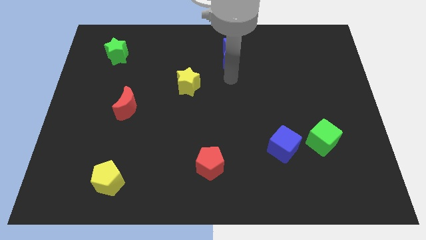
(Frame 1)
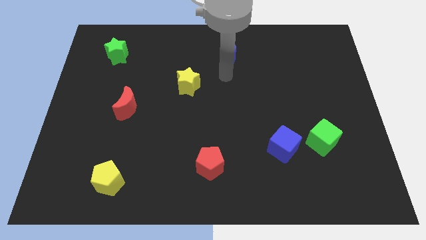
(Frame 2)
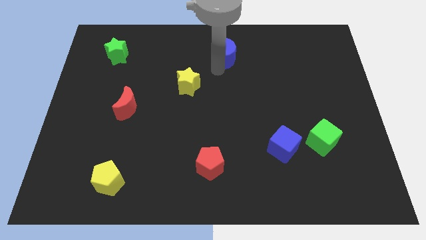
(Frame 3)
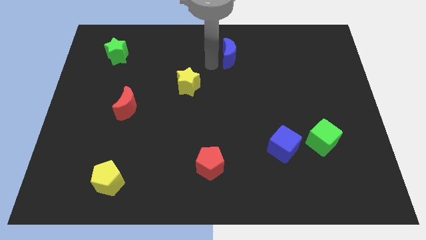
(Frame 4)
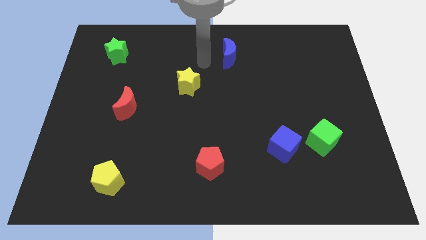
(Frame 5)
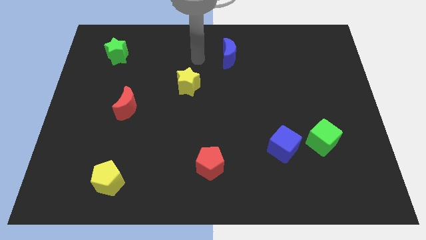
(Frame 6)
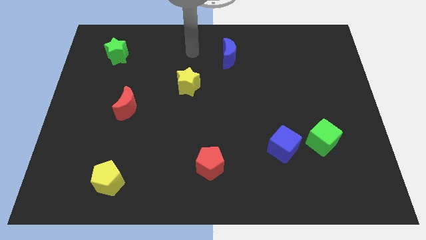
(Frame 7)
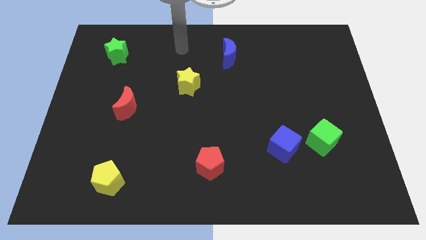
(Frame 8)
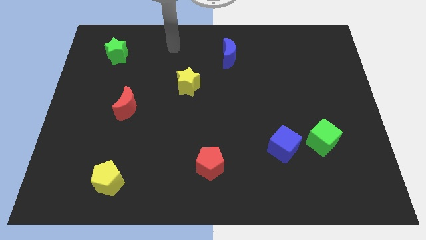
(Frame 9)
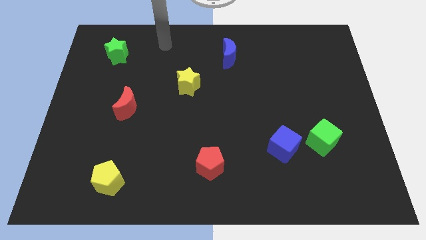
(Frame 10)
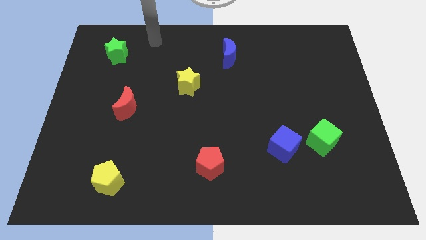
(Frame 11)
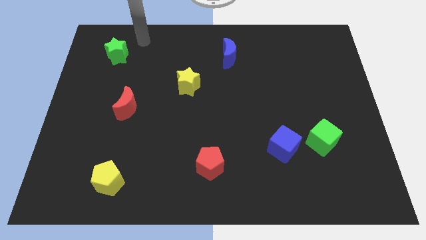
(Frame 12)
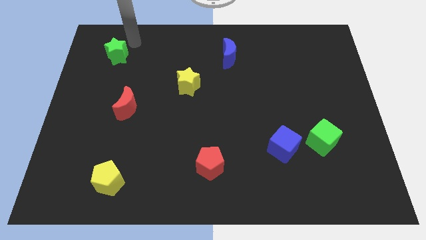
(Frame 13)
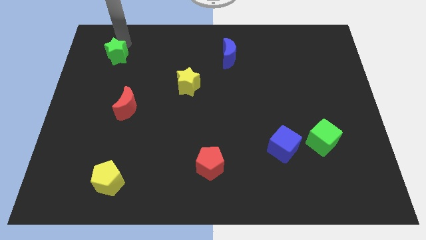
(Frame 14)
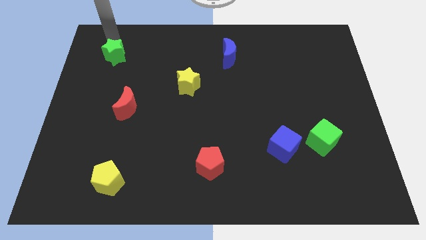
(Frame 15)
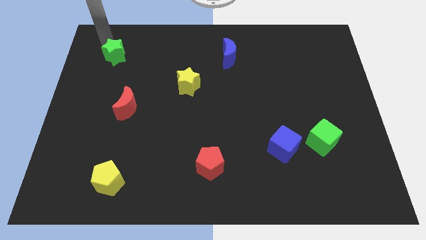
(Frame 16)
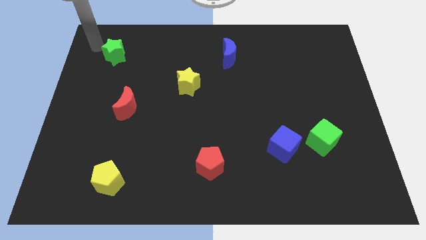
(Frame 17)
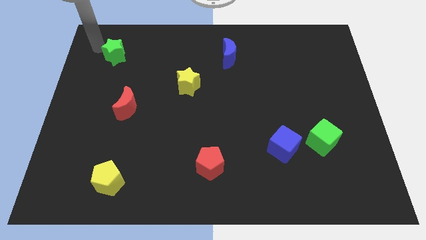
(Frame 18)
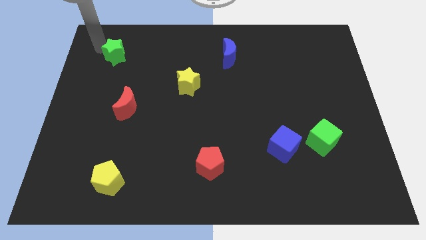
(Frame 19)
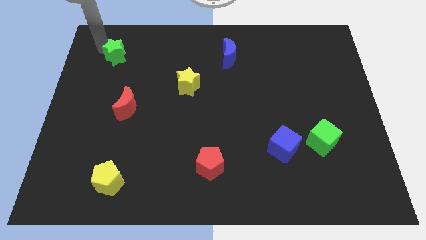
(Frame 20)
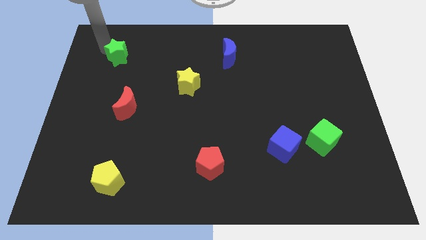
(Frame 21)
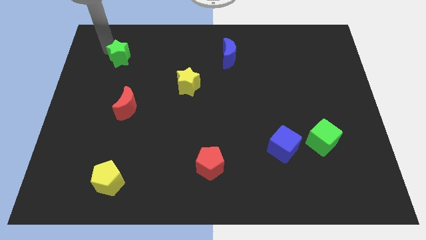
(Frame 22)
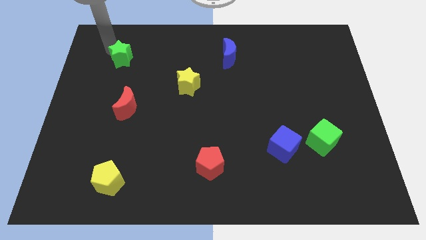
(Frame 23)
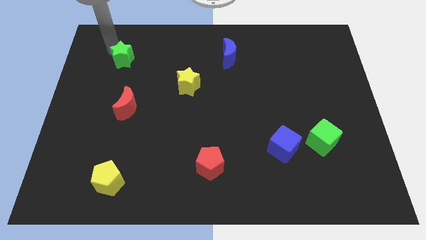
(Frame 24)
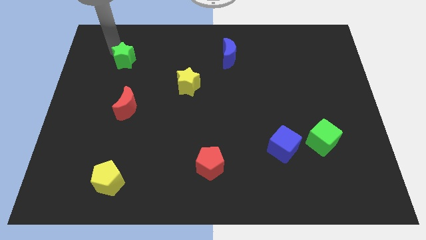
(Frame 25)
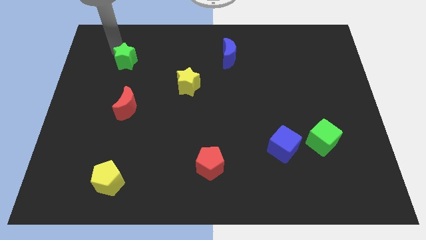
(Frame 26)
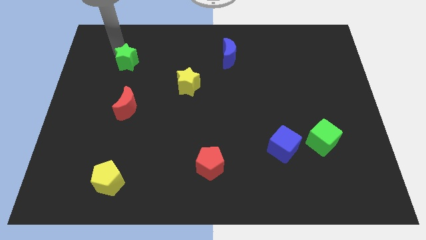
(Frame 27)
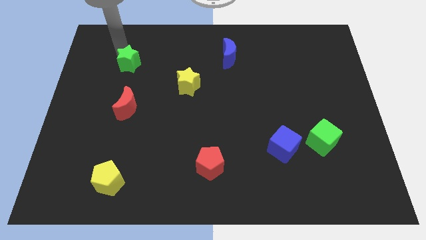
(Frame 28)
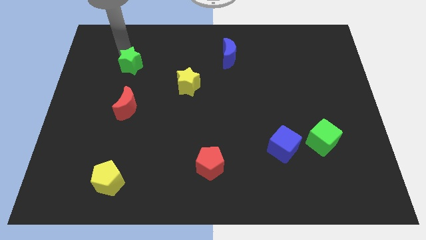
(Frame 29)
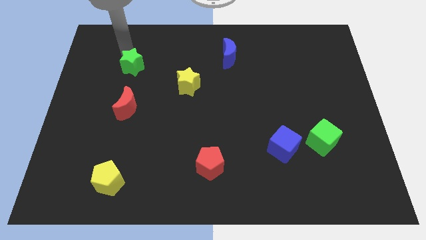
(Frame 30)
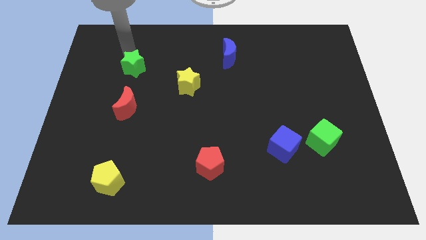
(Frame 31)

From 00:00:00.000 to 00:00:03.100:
push the green star down and to the right diagonally somewhat

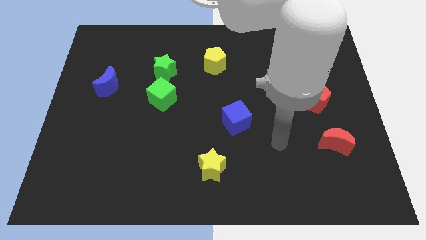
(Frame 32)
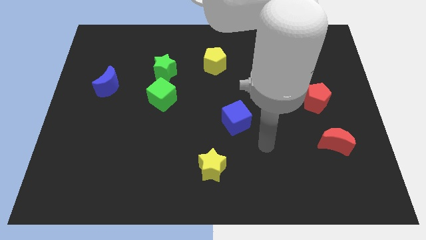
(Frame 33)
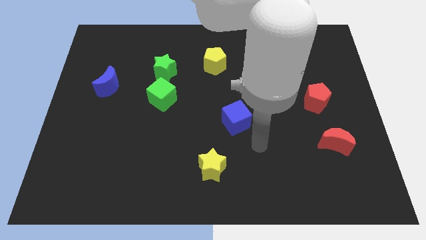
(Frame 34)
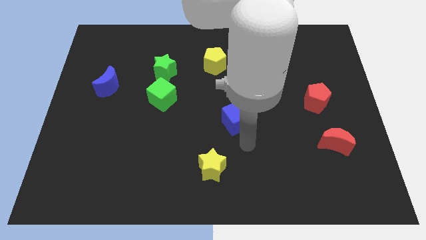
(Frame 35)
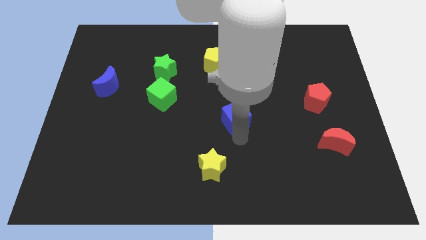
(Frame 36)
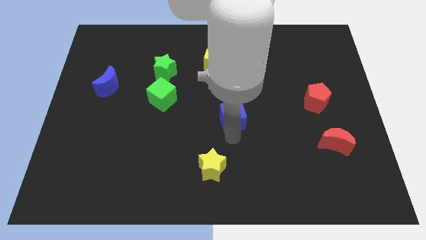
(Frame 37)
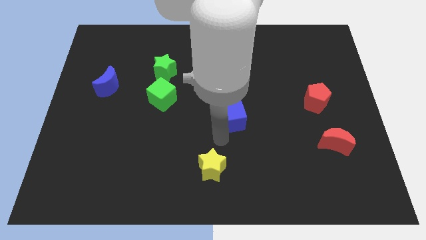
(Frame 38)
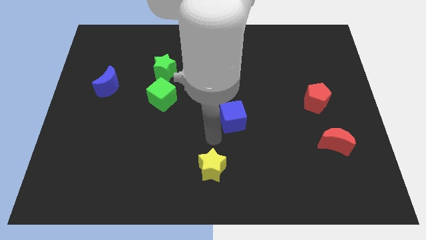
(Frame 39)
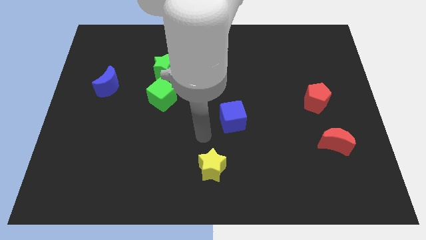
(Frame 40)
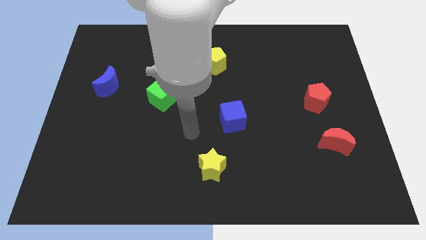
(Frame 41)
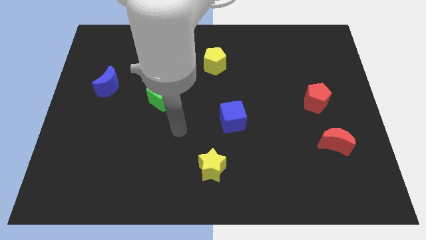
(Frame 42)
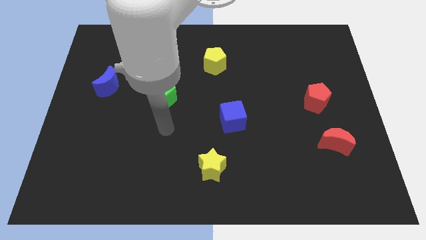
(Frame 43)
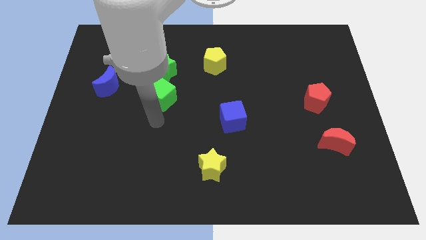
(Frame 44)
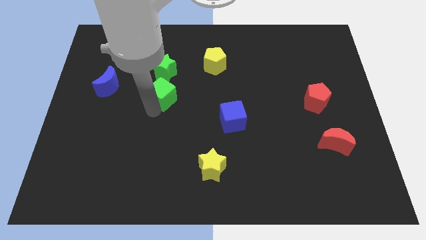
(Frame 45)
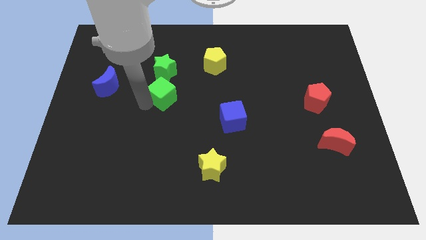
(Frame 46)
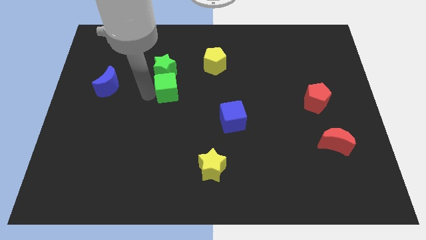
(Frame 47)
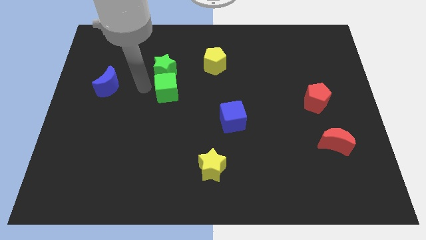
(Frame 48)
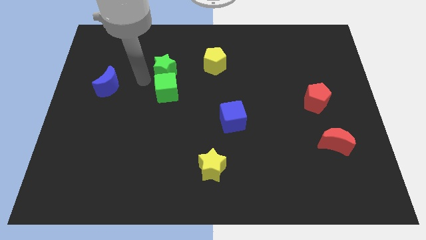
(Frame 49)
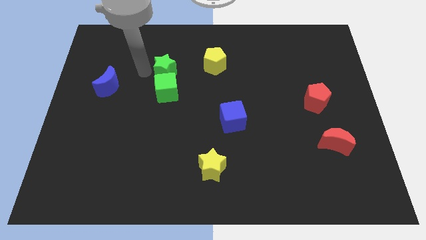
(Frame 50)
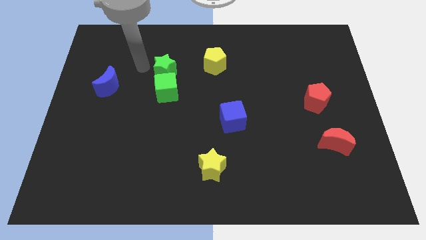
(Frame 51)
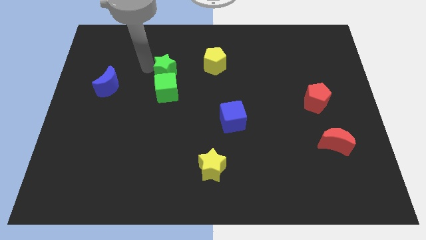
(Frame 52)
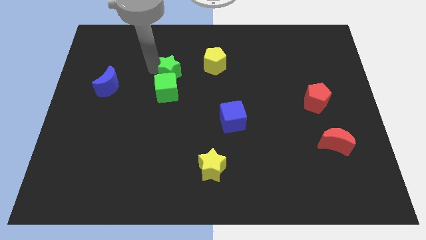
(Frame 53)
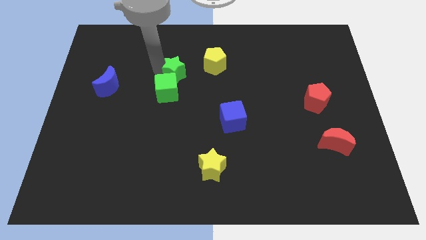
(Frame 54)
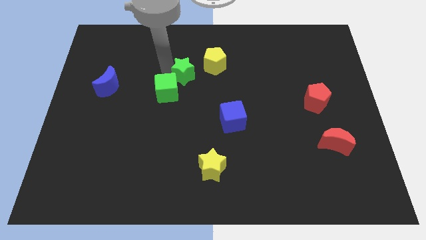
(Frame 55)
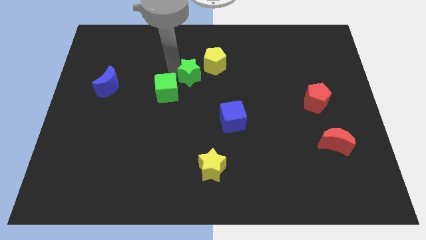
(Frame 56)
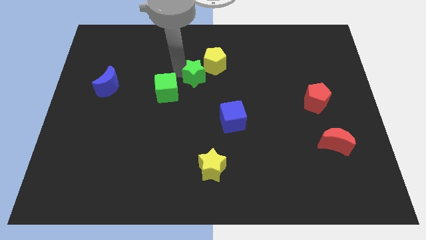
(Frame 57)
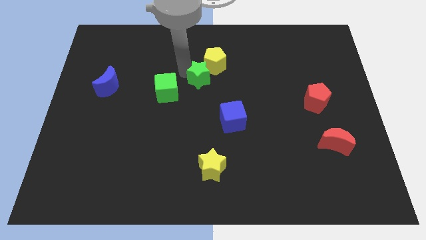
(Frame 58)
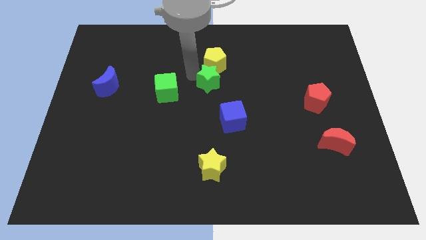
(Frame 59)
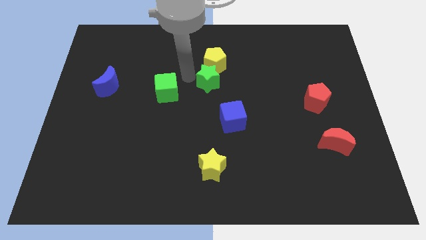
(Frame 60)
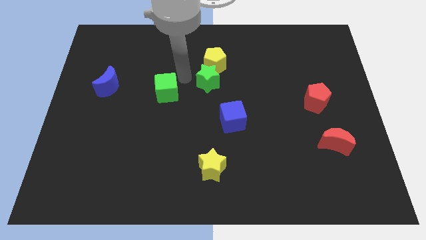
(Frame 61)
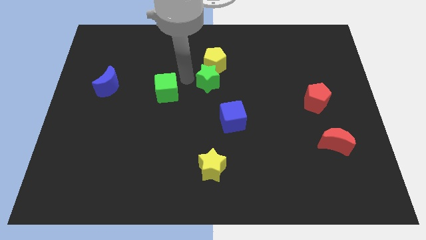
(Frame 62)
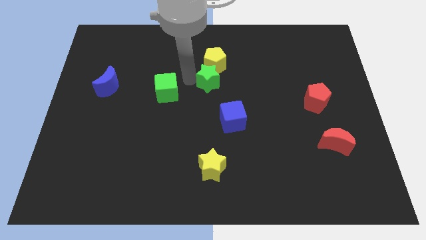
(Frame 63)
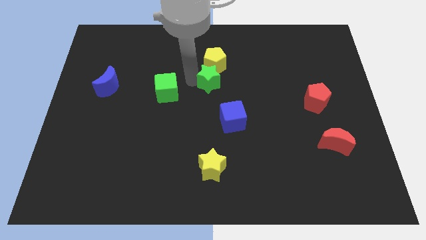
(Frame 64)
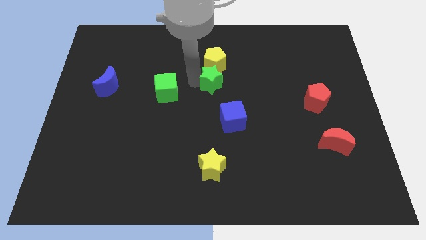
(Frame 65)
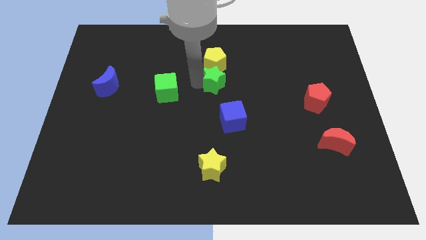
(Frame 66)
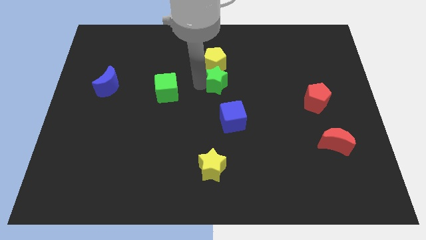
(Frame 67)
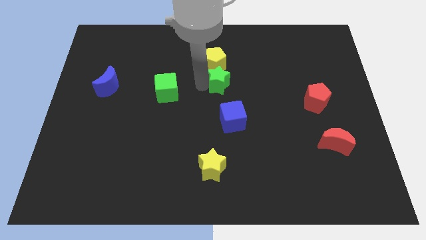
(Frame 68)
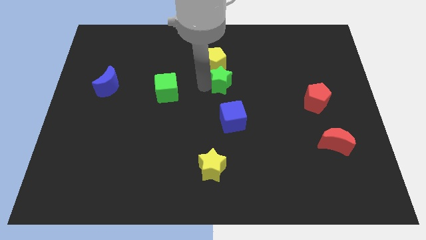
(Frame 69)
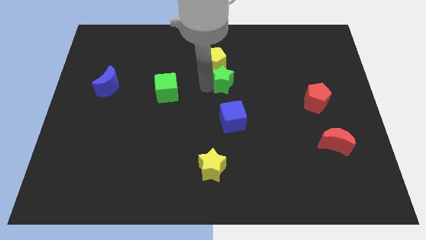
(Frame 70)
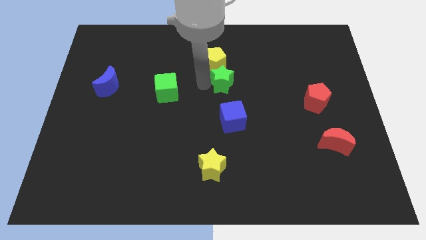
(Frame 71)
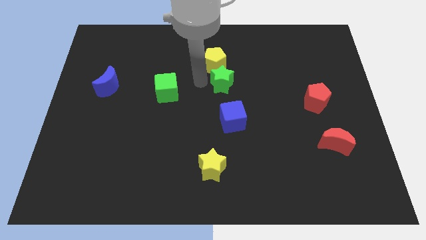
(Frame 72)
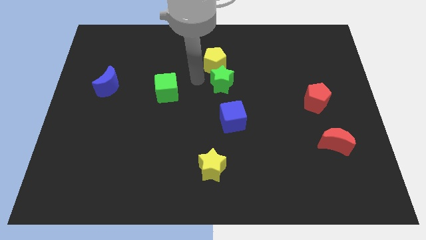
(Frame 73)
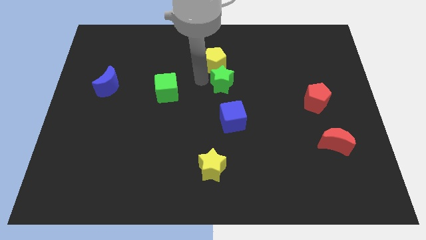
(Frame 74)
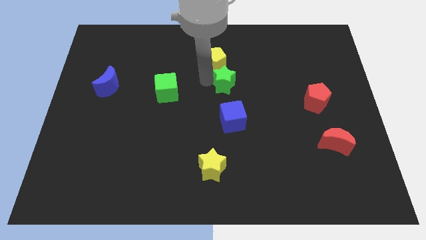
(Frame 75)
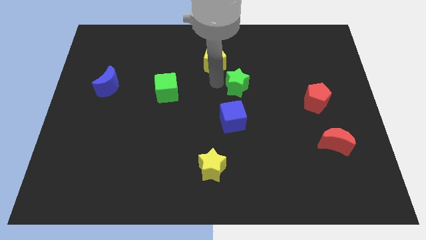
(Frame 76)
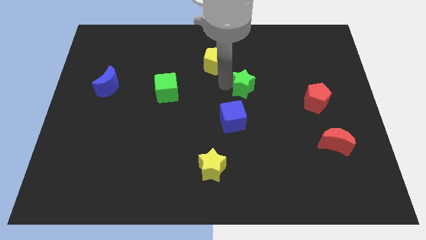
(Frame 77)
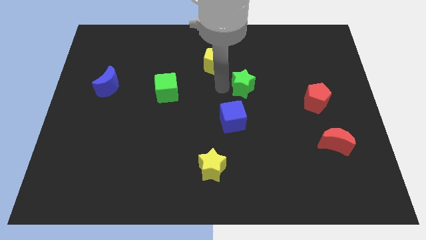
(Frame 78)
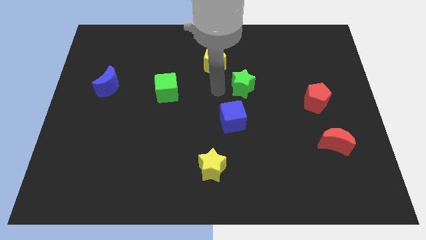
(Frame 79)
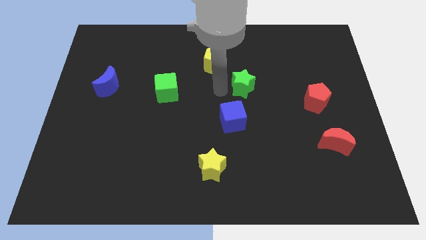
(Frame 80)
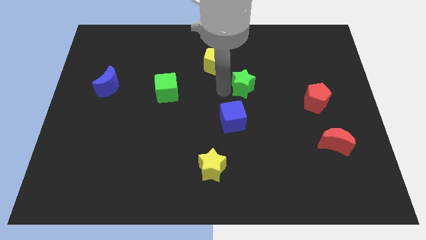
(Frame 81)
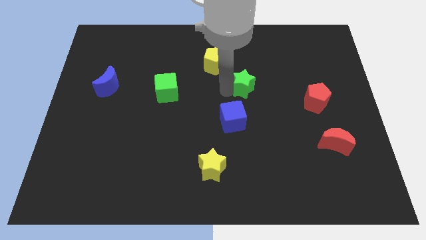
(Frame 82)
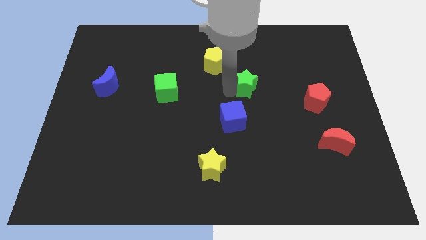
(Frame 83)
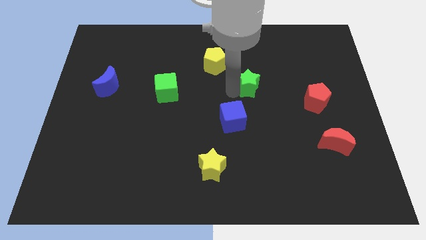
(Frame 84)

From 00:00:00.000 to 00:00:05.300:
push the green star to the right

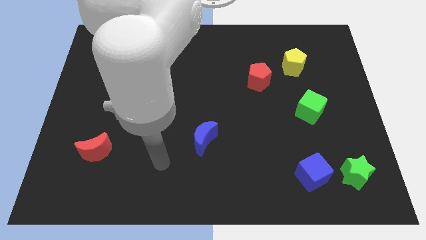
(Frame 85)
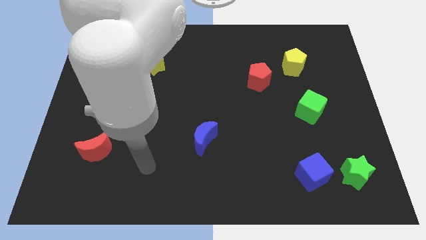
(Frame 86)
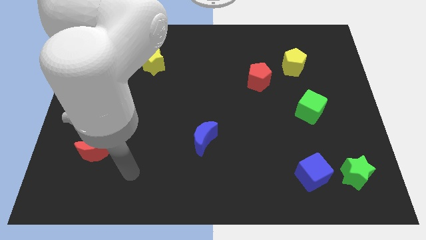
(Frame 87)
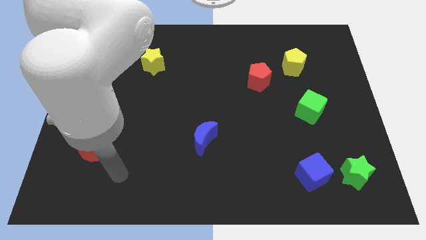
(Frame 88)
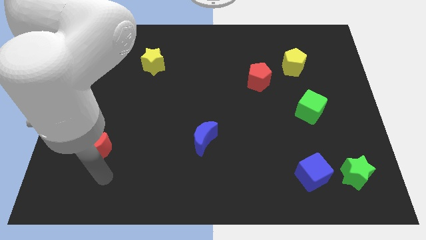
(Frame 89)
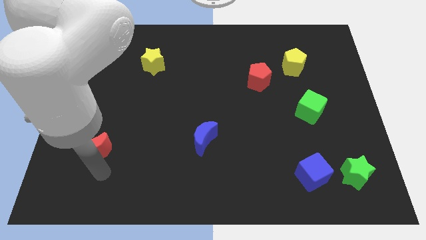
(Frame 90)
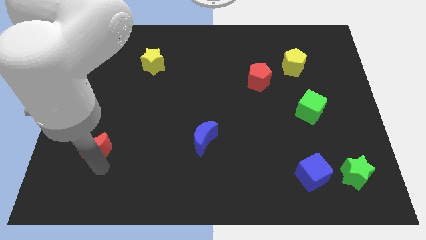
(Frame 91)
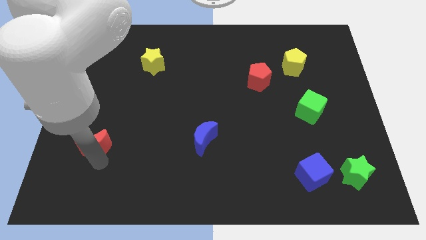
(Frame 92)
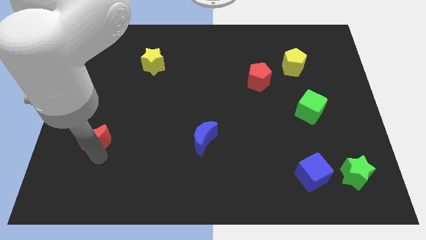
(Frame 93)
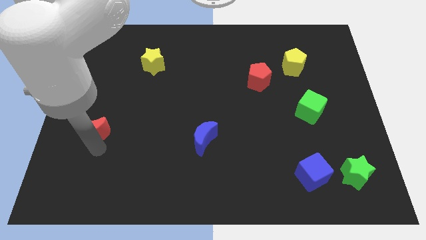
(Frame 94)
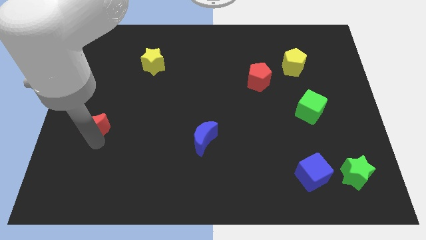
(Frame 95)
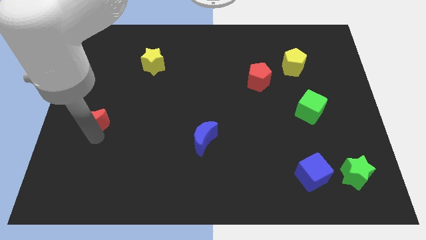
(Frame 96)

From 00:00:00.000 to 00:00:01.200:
push the red moon upwards slightly
